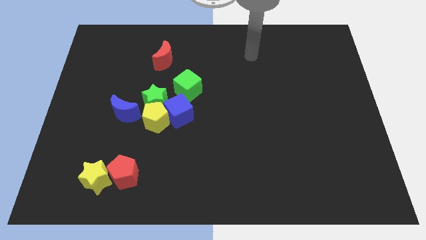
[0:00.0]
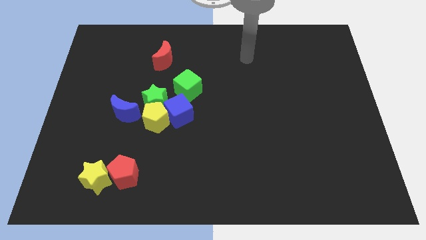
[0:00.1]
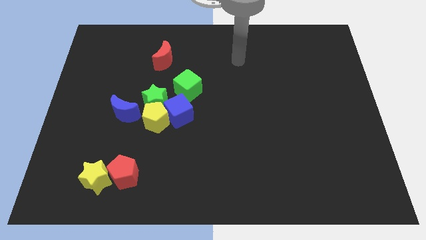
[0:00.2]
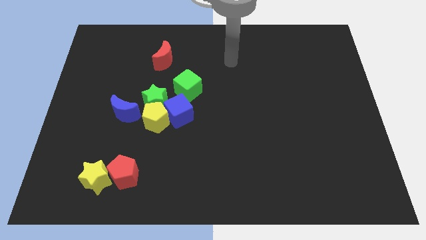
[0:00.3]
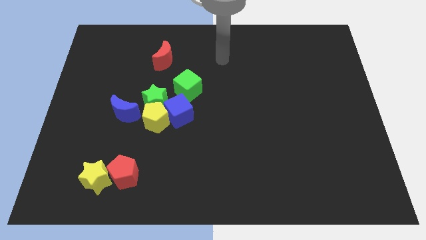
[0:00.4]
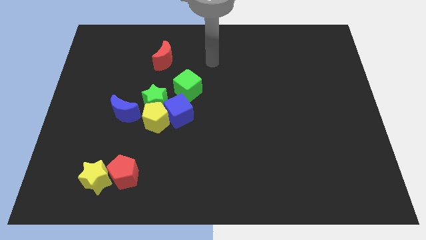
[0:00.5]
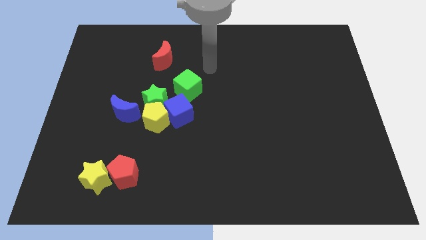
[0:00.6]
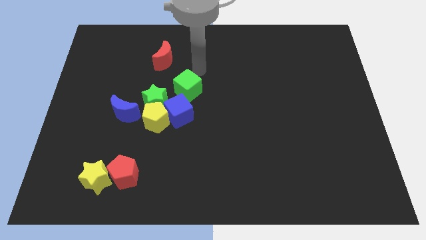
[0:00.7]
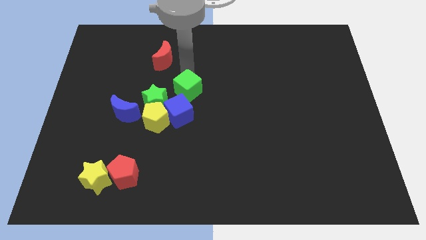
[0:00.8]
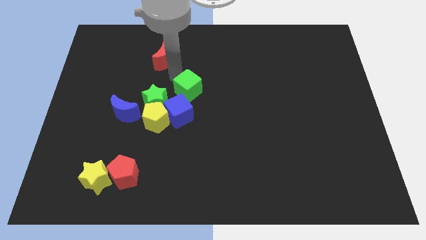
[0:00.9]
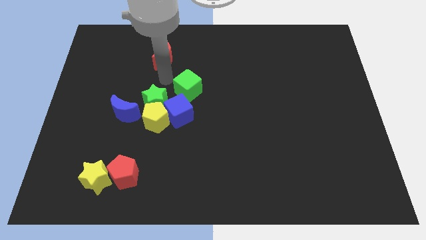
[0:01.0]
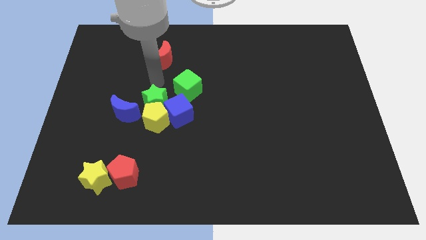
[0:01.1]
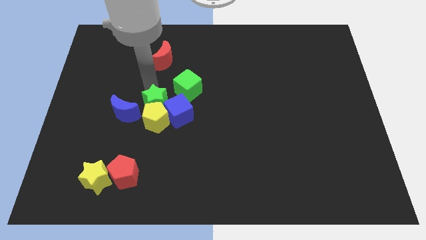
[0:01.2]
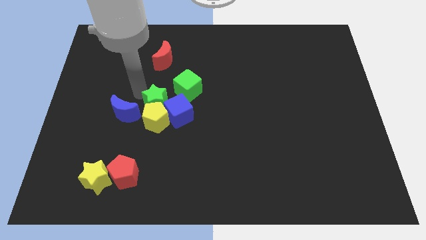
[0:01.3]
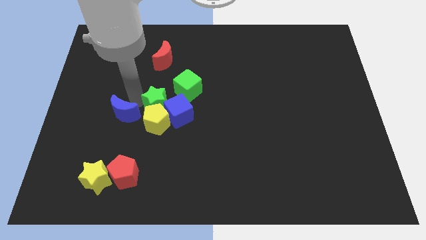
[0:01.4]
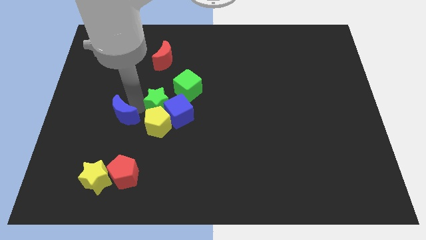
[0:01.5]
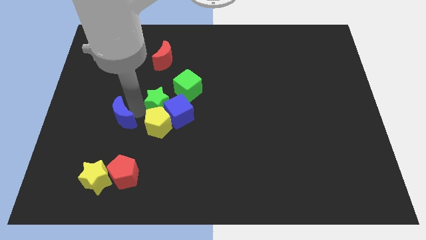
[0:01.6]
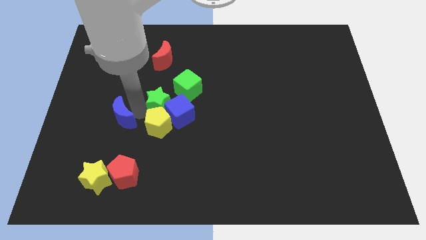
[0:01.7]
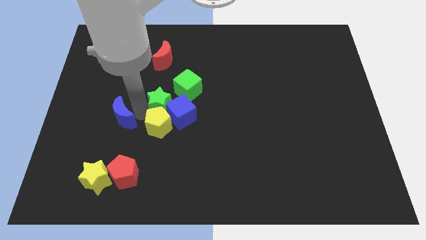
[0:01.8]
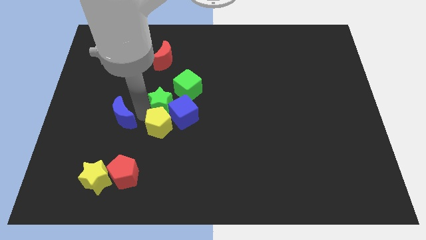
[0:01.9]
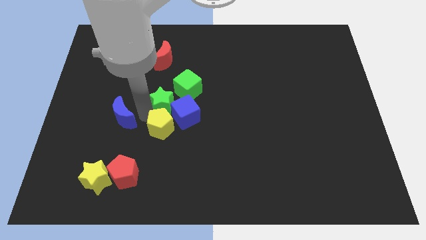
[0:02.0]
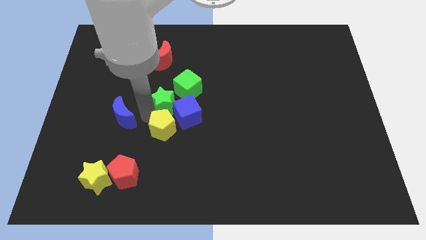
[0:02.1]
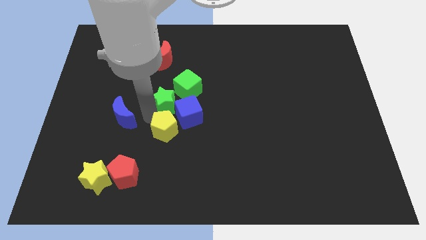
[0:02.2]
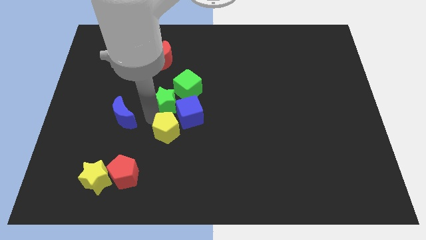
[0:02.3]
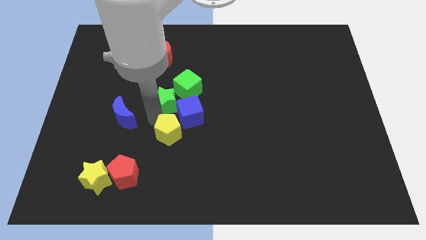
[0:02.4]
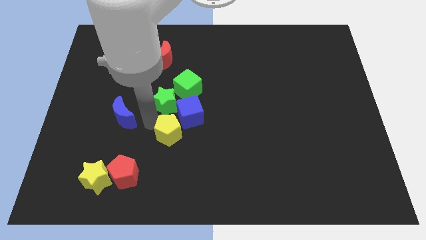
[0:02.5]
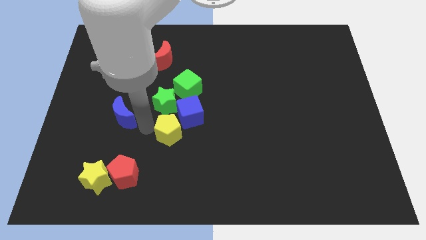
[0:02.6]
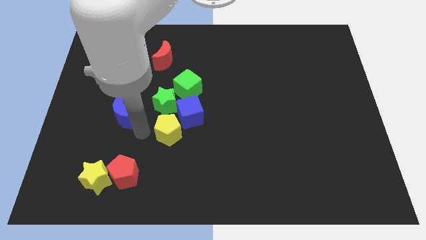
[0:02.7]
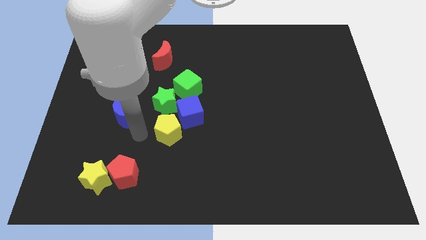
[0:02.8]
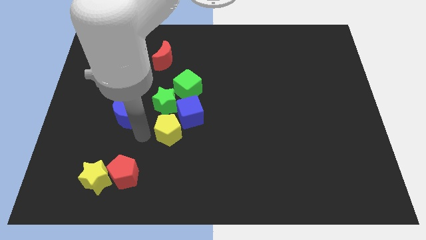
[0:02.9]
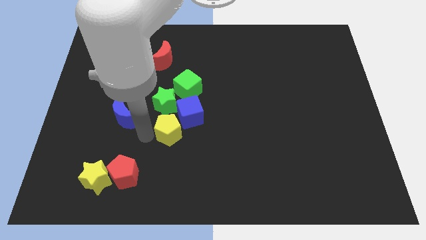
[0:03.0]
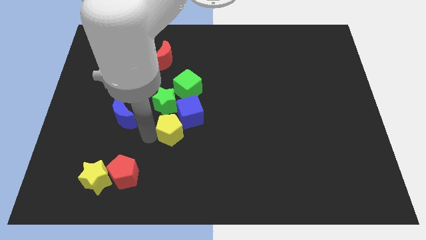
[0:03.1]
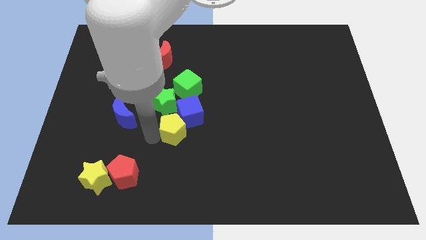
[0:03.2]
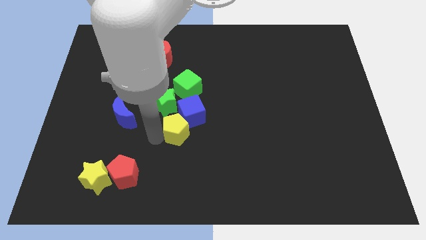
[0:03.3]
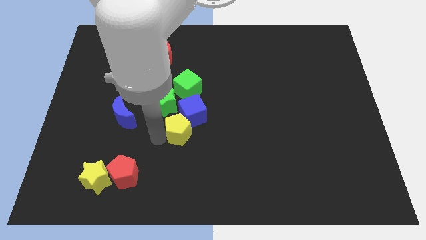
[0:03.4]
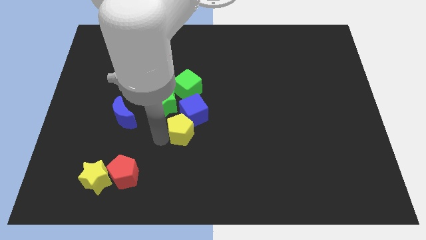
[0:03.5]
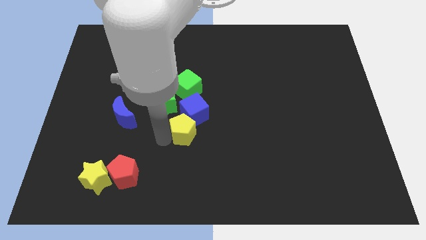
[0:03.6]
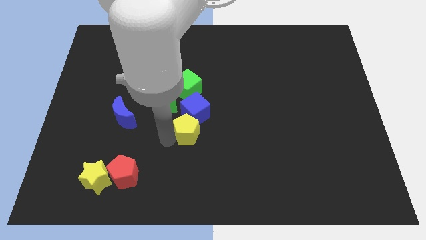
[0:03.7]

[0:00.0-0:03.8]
push the yellow pentagon a bit to the right

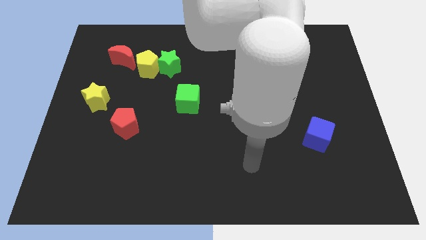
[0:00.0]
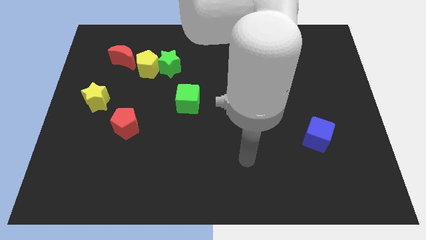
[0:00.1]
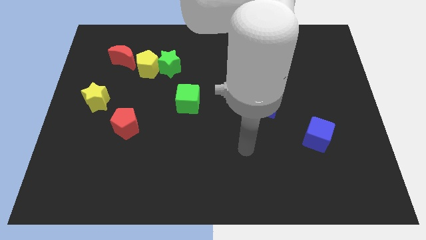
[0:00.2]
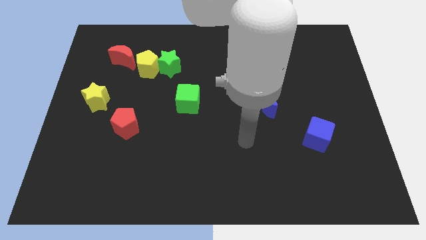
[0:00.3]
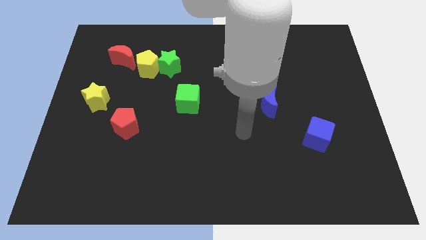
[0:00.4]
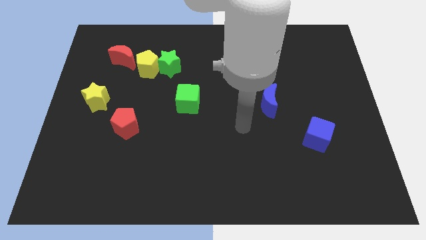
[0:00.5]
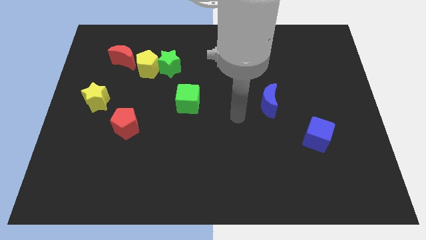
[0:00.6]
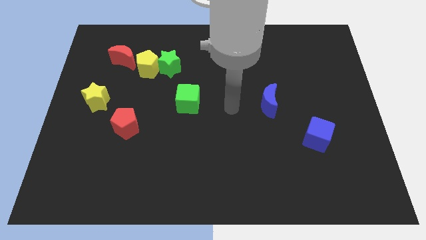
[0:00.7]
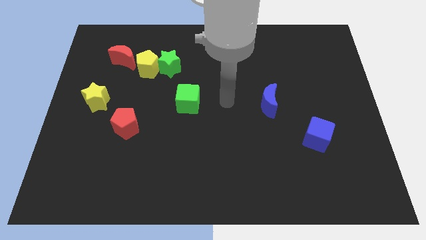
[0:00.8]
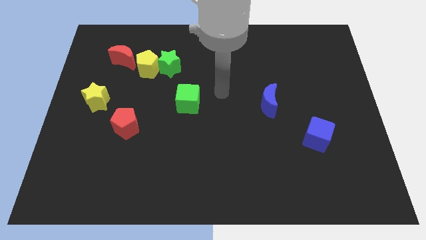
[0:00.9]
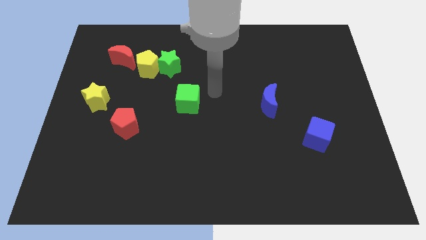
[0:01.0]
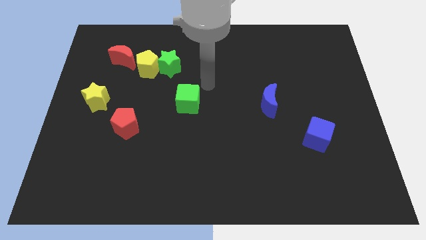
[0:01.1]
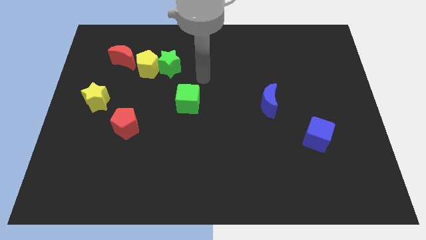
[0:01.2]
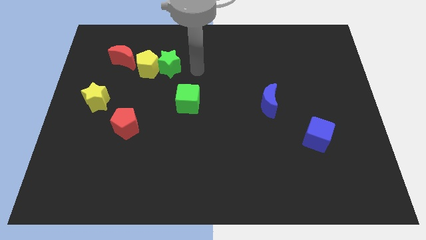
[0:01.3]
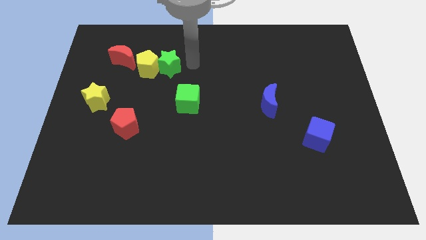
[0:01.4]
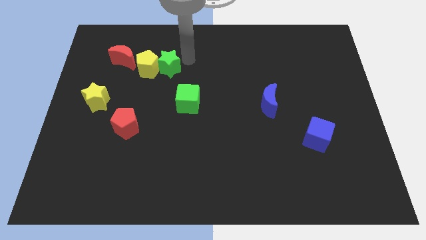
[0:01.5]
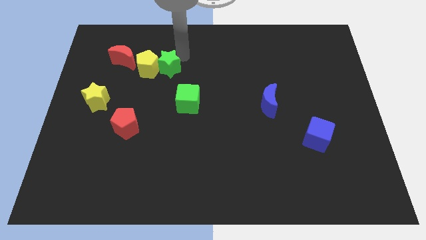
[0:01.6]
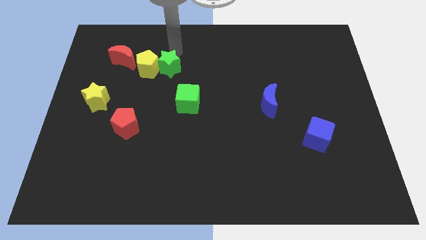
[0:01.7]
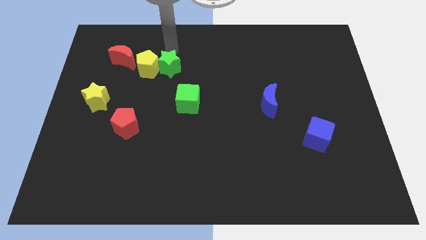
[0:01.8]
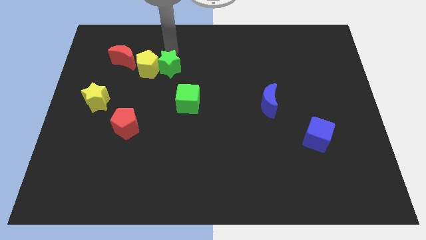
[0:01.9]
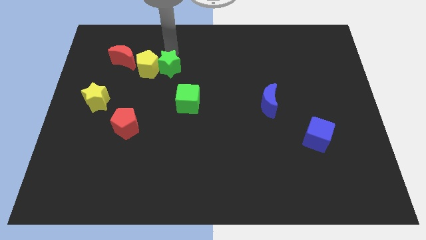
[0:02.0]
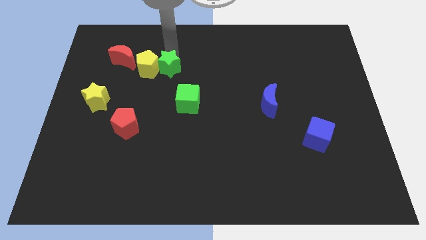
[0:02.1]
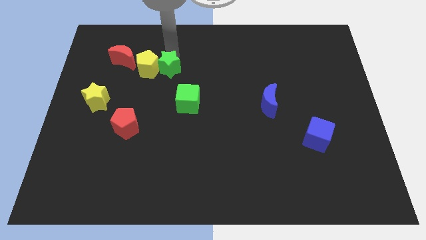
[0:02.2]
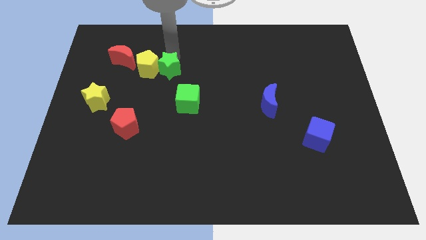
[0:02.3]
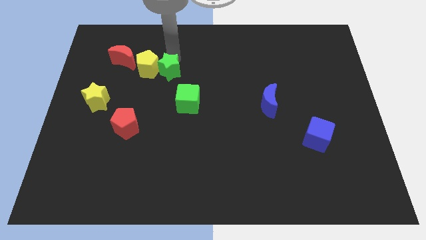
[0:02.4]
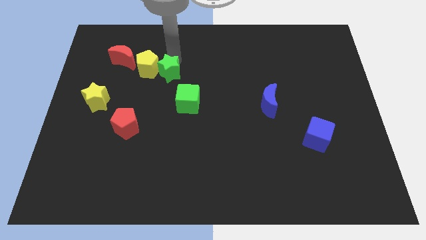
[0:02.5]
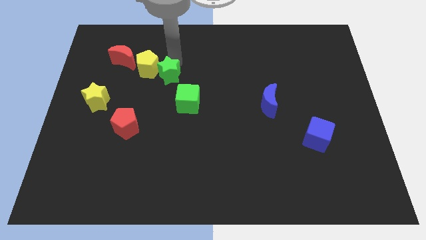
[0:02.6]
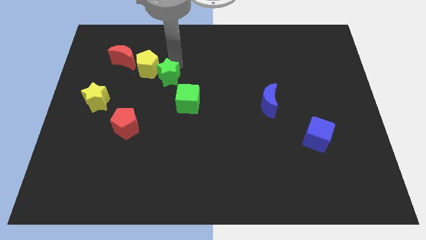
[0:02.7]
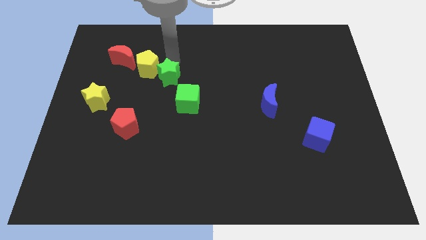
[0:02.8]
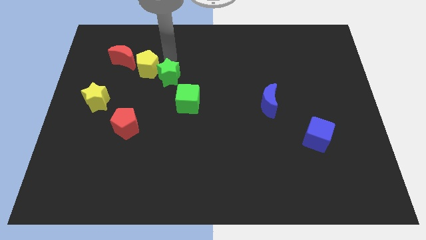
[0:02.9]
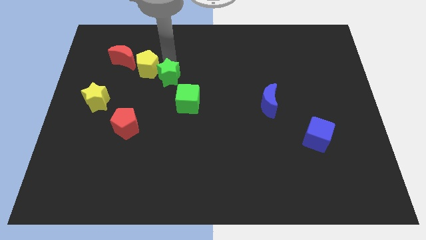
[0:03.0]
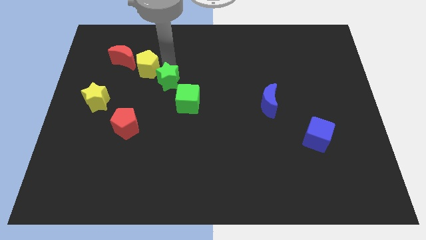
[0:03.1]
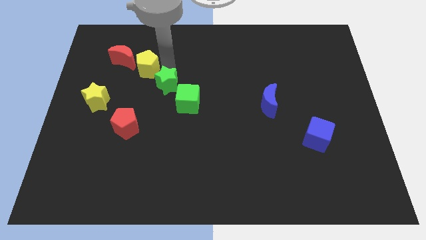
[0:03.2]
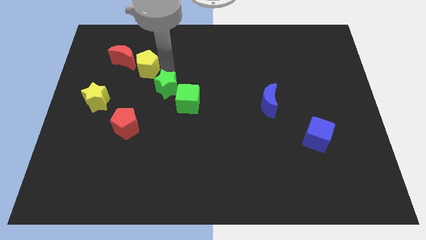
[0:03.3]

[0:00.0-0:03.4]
slide the green star a little downwards

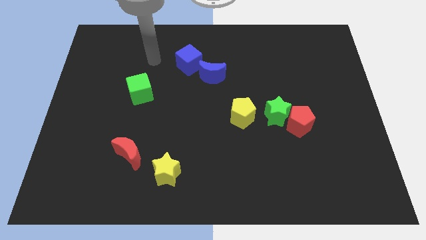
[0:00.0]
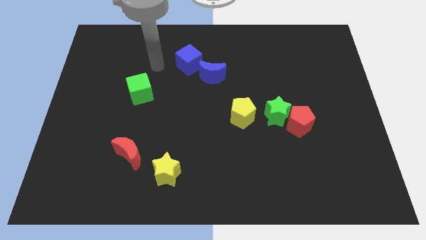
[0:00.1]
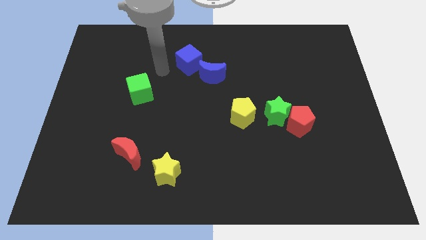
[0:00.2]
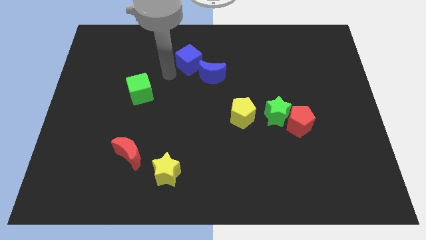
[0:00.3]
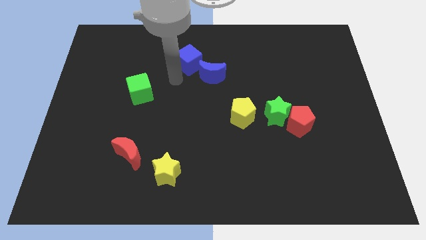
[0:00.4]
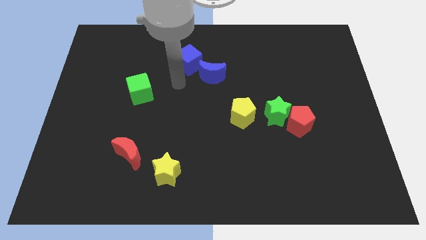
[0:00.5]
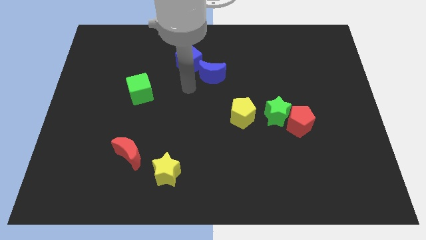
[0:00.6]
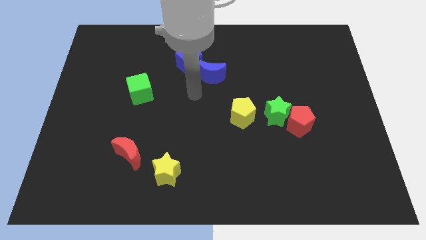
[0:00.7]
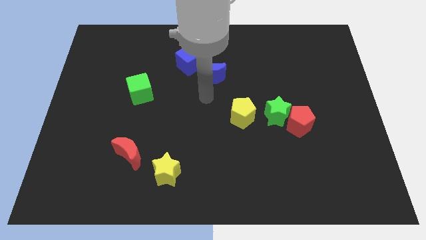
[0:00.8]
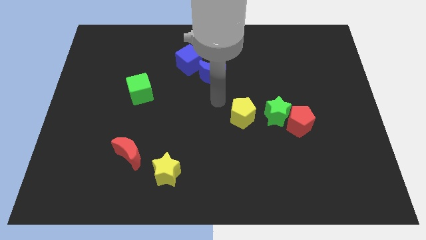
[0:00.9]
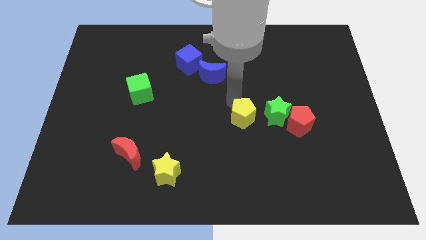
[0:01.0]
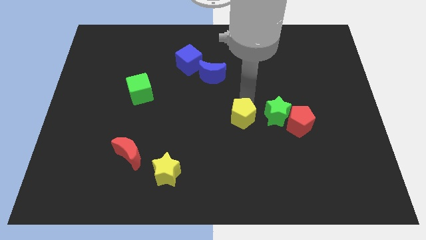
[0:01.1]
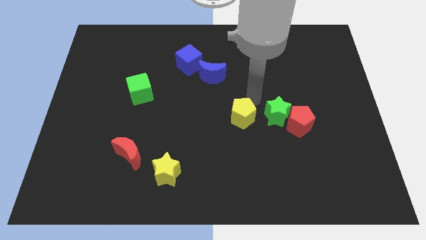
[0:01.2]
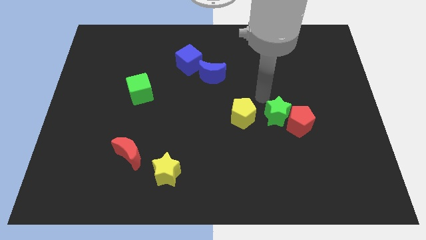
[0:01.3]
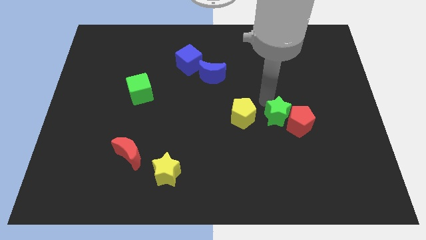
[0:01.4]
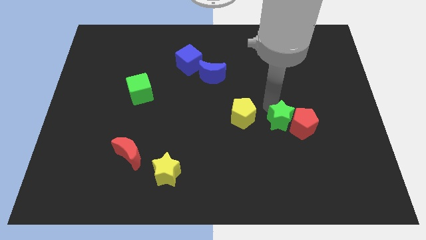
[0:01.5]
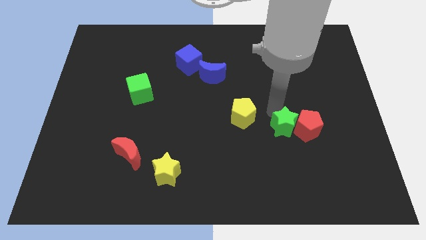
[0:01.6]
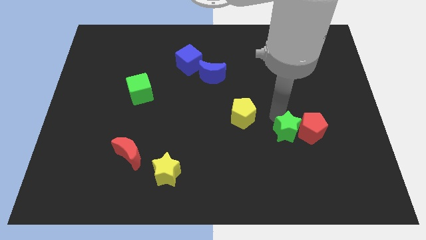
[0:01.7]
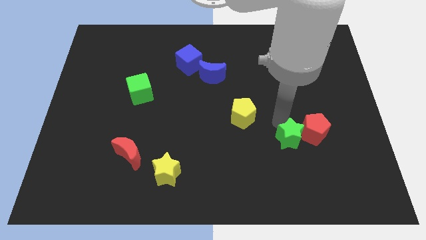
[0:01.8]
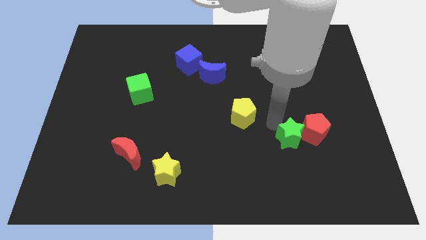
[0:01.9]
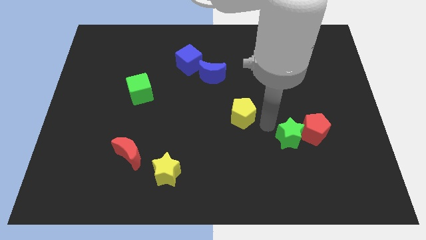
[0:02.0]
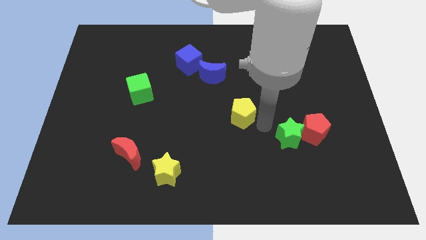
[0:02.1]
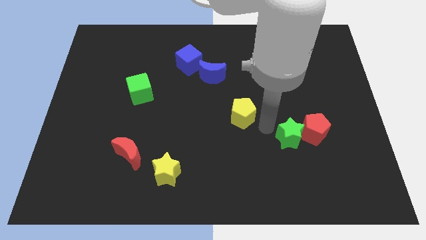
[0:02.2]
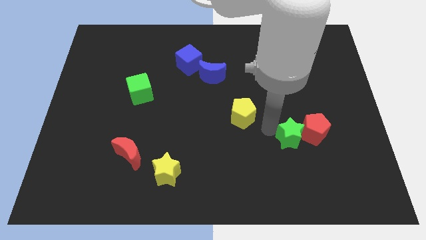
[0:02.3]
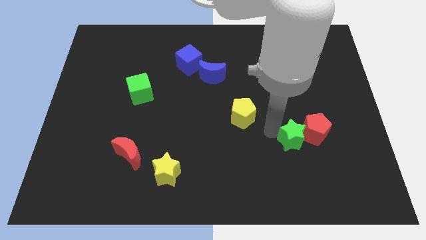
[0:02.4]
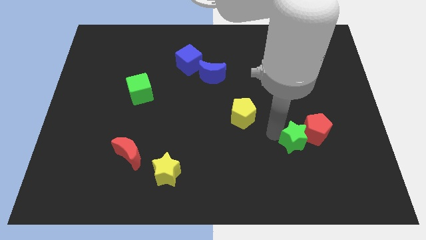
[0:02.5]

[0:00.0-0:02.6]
slide the green star somewhat down and right diagonally
